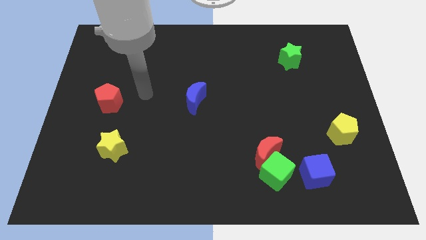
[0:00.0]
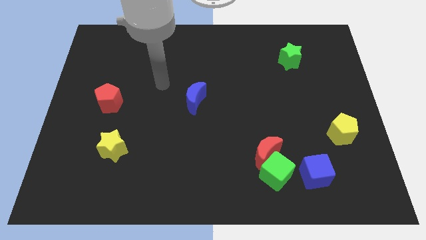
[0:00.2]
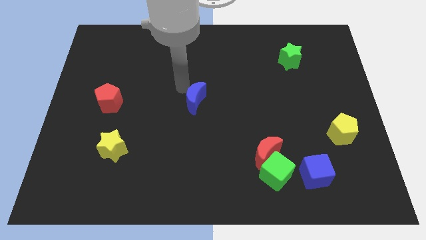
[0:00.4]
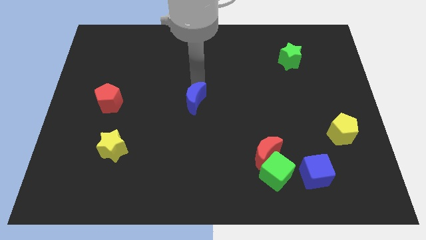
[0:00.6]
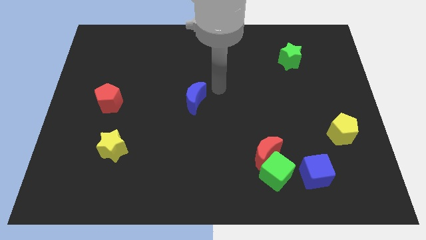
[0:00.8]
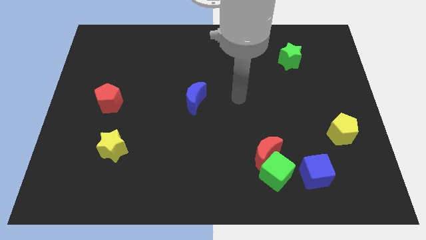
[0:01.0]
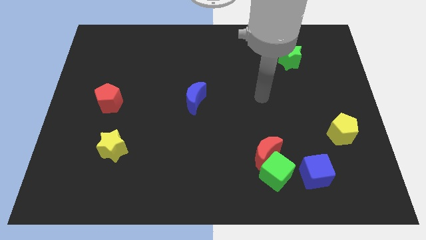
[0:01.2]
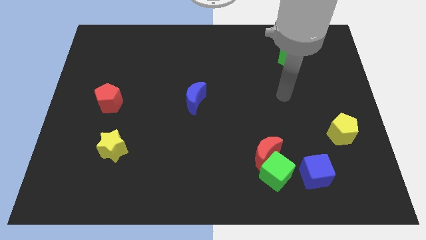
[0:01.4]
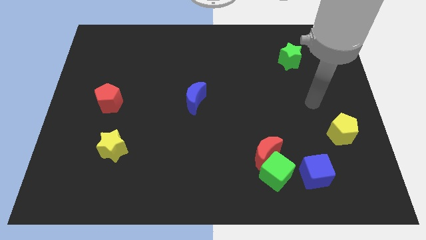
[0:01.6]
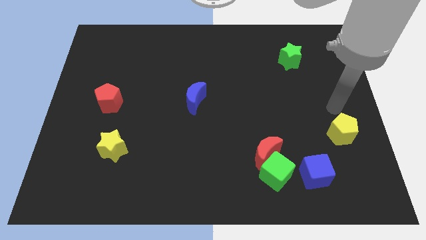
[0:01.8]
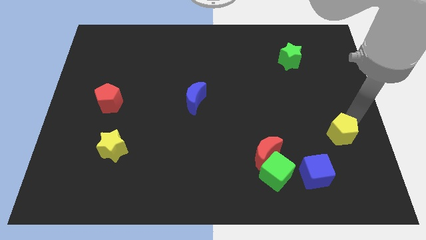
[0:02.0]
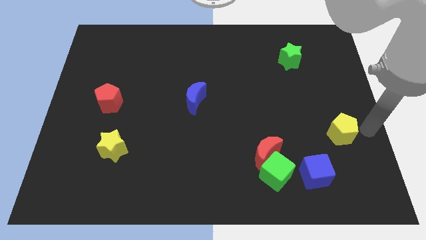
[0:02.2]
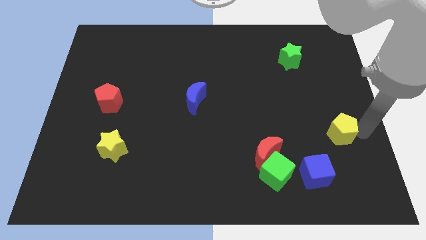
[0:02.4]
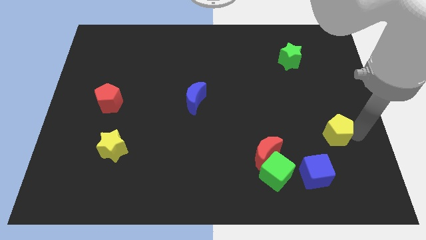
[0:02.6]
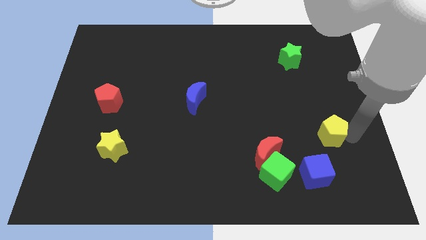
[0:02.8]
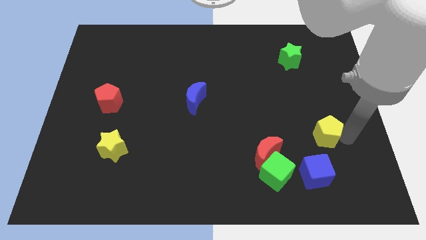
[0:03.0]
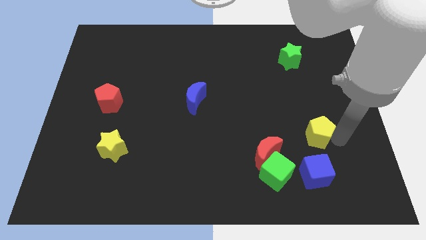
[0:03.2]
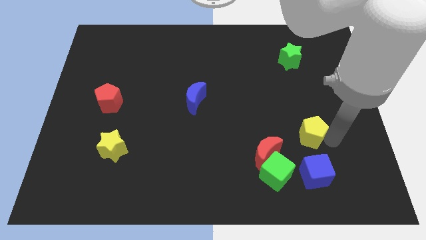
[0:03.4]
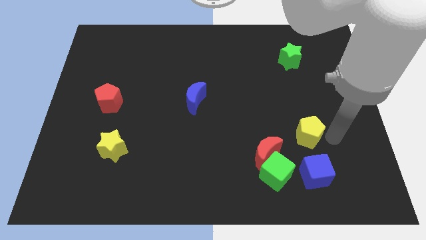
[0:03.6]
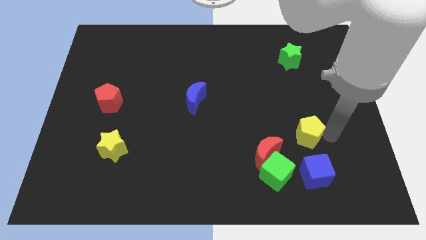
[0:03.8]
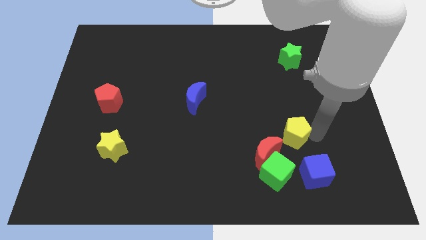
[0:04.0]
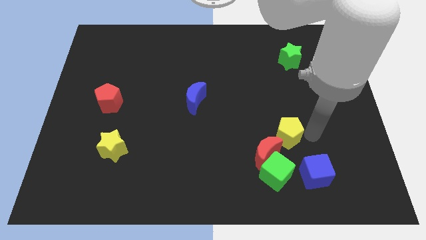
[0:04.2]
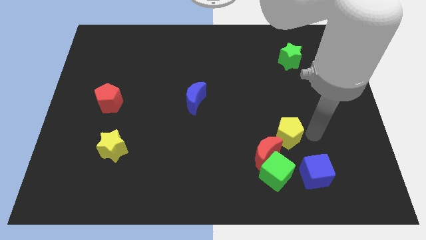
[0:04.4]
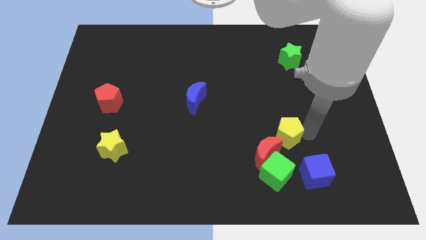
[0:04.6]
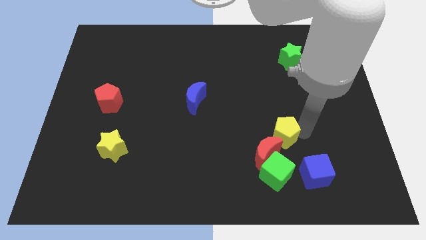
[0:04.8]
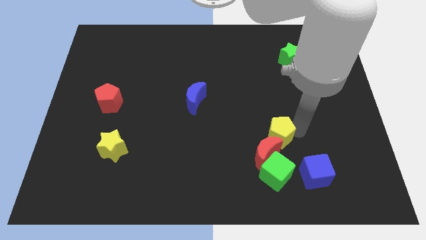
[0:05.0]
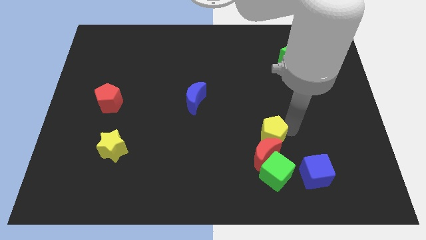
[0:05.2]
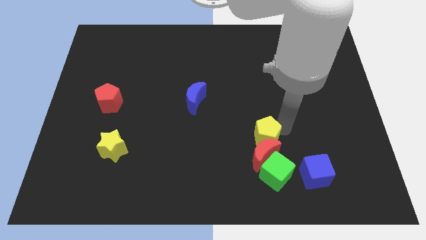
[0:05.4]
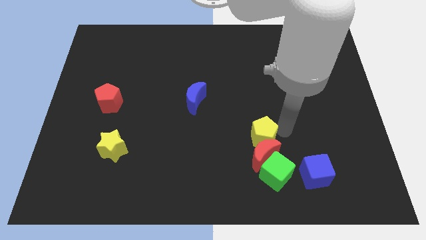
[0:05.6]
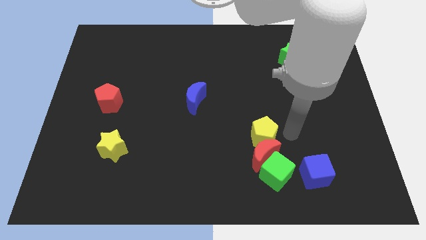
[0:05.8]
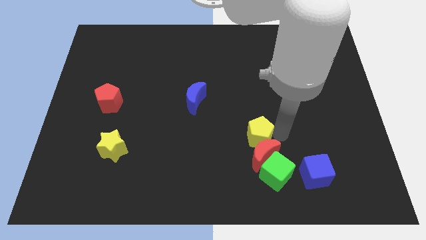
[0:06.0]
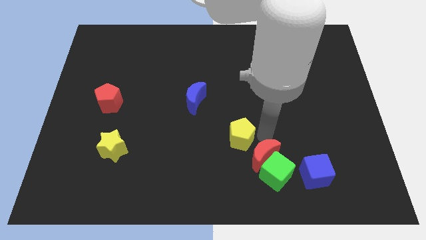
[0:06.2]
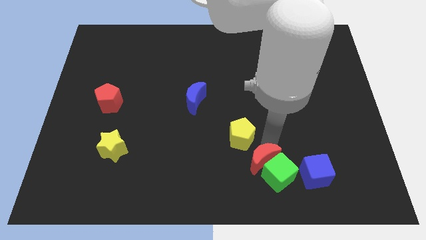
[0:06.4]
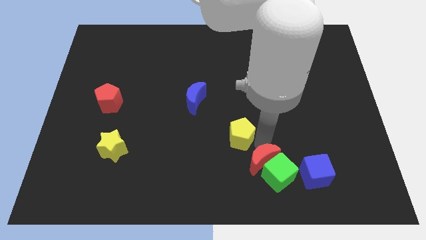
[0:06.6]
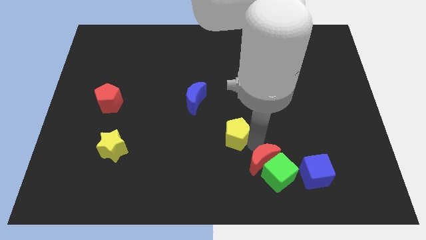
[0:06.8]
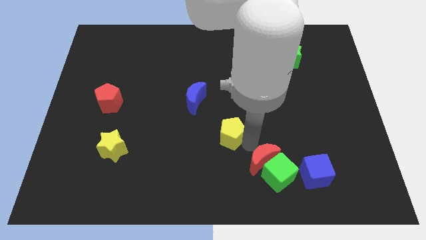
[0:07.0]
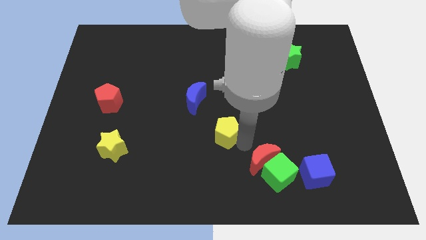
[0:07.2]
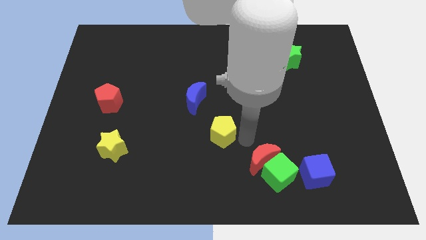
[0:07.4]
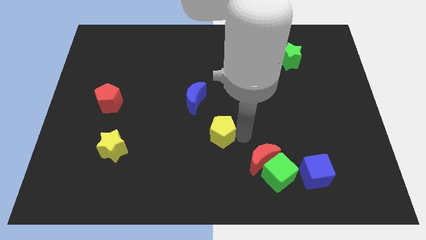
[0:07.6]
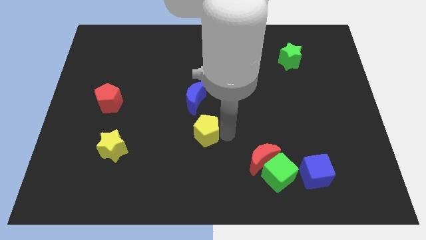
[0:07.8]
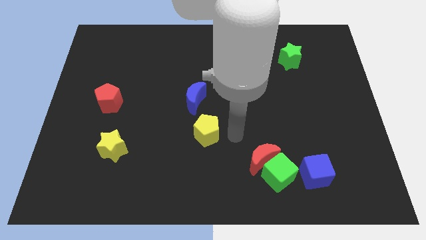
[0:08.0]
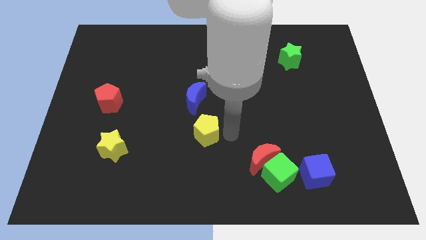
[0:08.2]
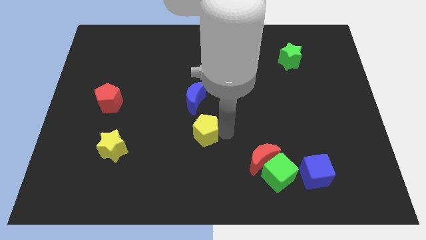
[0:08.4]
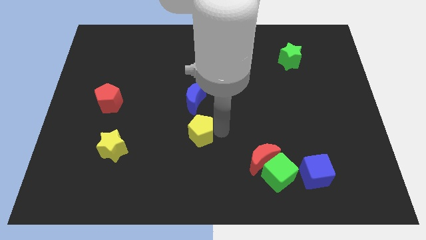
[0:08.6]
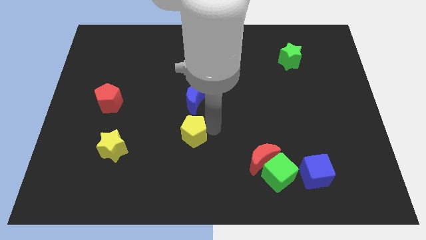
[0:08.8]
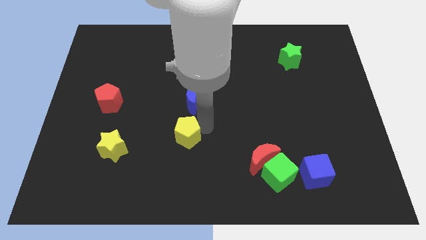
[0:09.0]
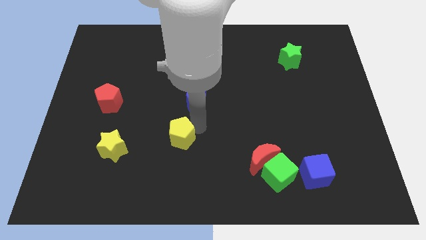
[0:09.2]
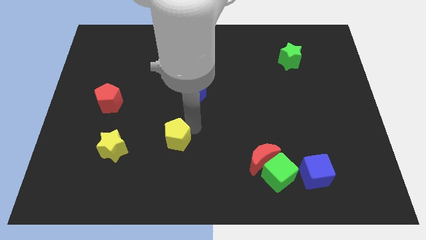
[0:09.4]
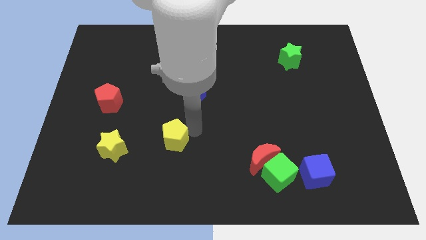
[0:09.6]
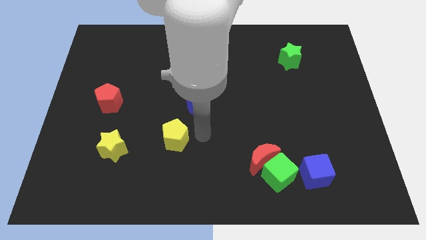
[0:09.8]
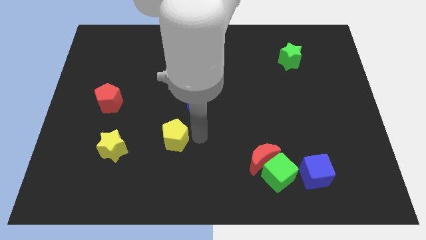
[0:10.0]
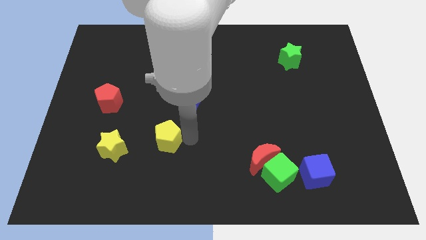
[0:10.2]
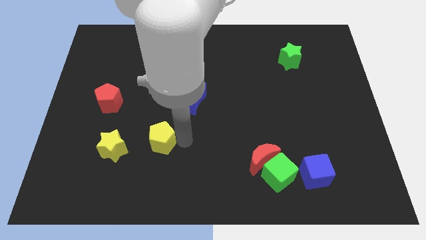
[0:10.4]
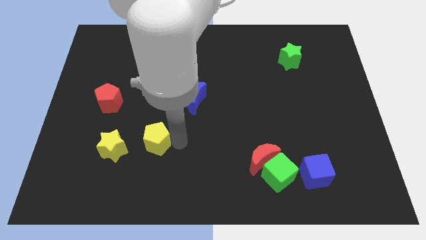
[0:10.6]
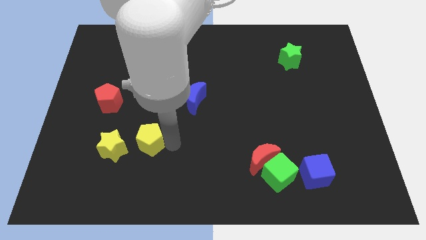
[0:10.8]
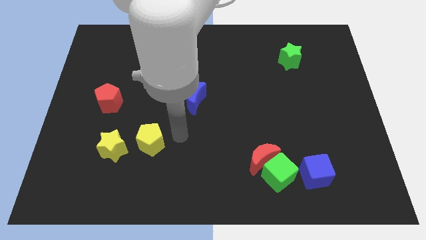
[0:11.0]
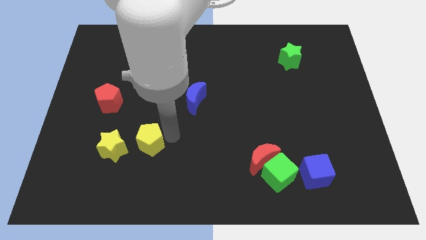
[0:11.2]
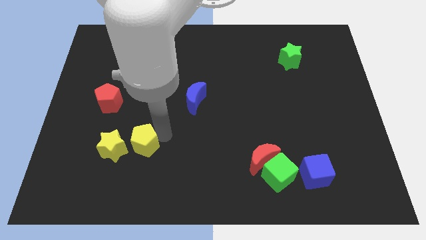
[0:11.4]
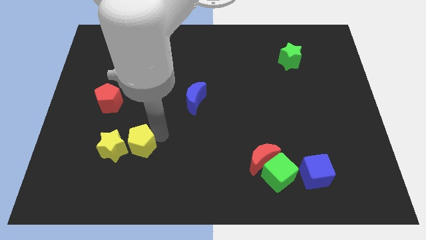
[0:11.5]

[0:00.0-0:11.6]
move the yellow pentagon towards the yellow star

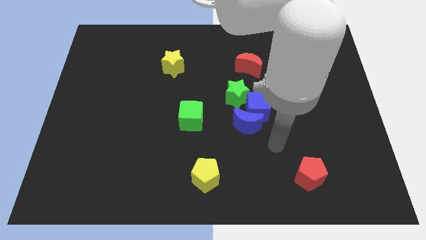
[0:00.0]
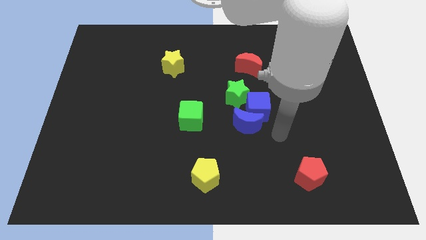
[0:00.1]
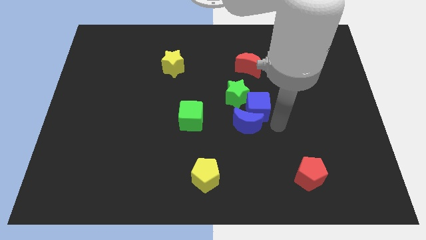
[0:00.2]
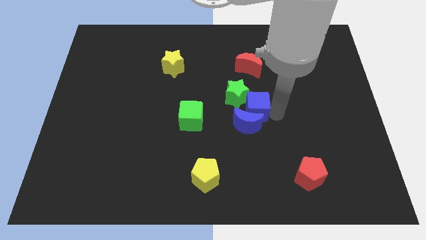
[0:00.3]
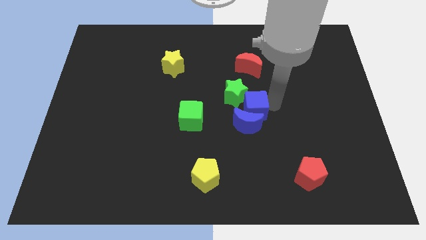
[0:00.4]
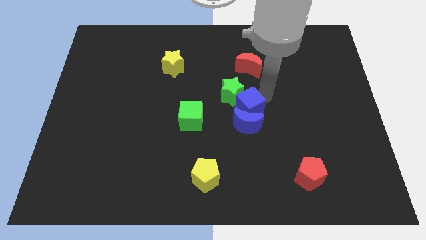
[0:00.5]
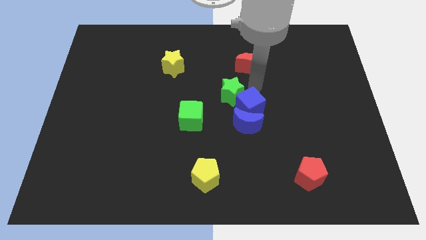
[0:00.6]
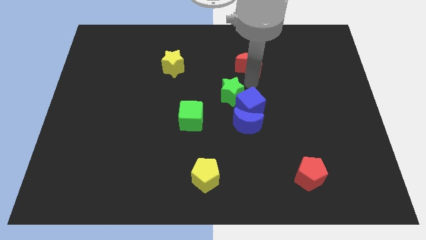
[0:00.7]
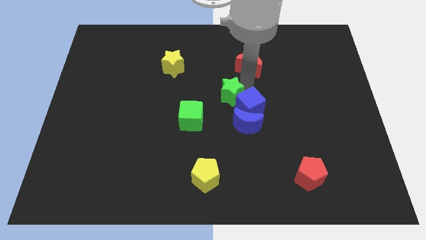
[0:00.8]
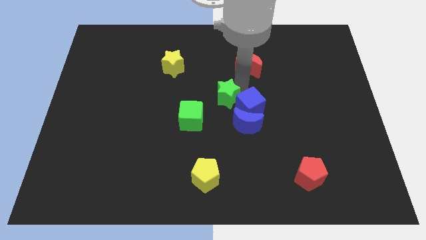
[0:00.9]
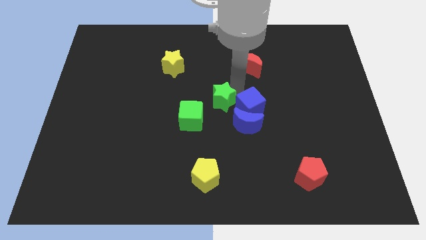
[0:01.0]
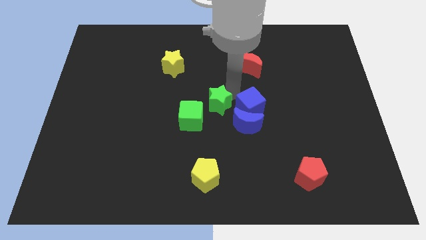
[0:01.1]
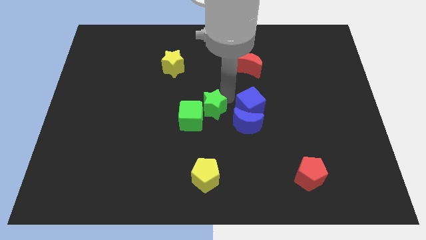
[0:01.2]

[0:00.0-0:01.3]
push the green star close to the green cube

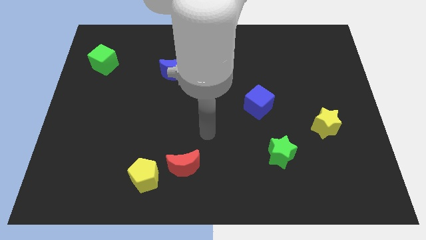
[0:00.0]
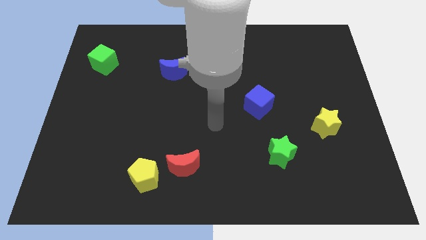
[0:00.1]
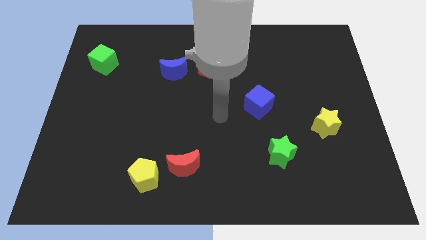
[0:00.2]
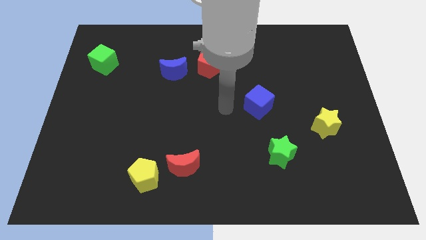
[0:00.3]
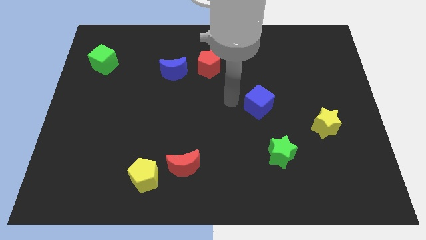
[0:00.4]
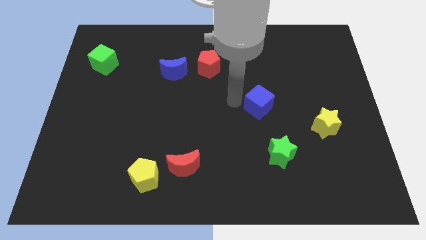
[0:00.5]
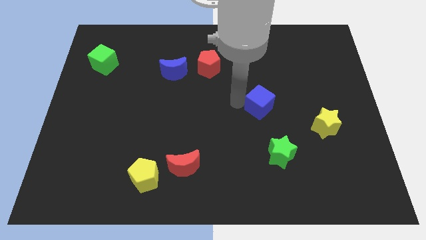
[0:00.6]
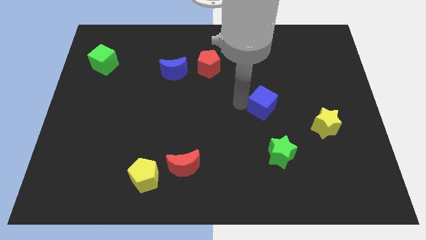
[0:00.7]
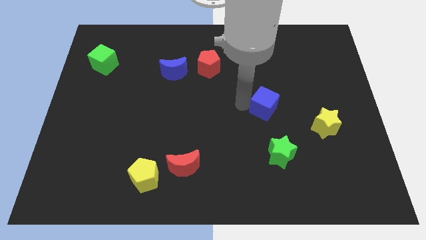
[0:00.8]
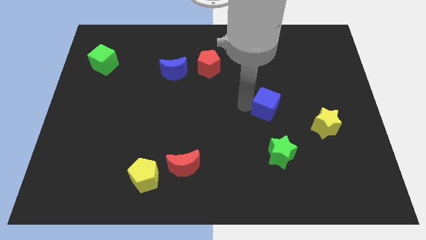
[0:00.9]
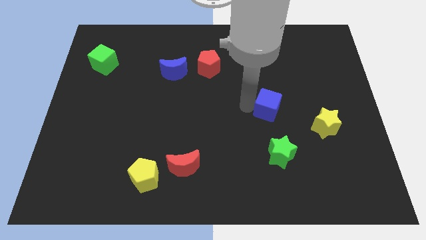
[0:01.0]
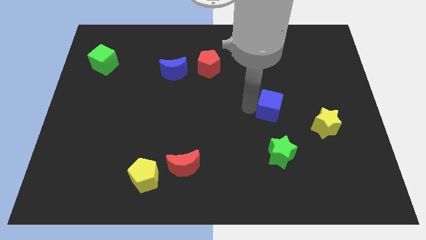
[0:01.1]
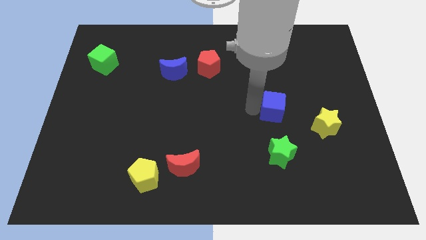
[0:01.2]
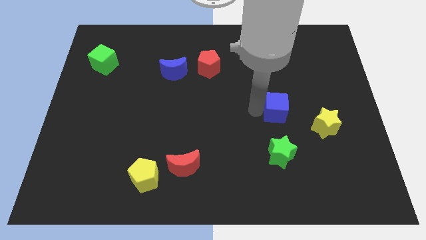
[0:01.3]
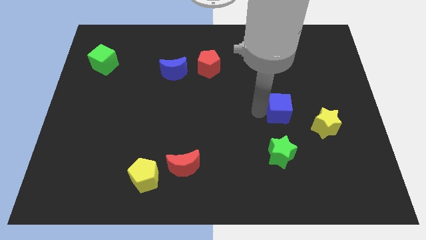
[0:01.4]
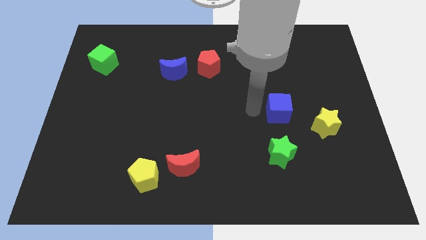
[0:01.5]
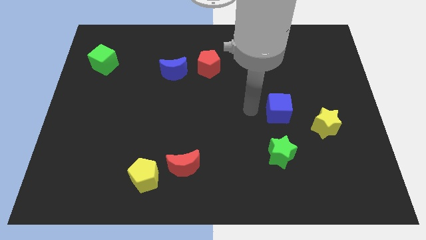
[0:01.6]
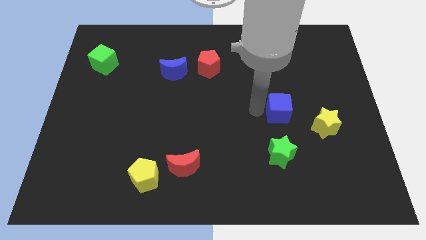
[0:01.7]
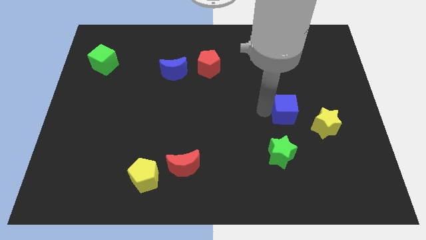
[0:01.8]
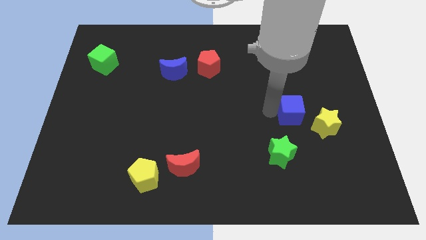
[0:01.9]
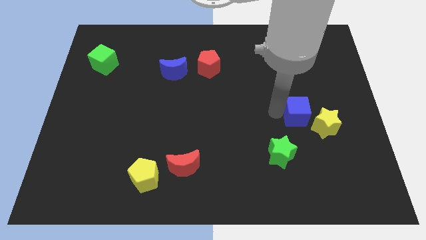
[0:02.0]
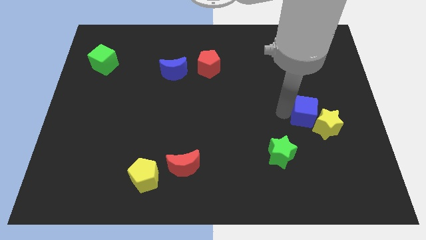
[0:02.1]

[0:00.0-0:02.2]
put the blue cube to the yellow star
